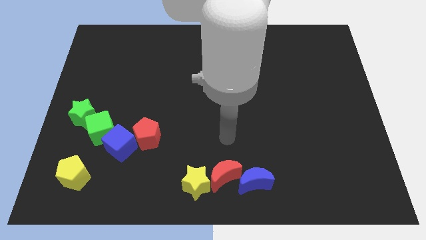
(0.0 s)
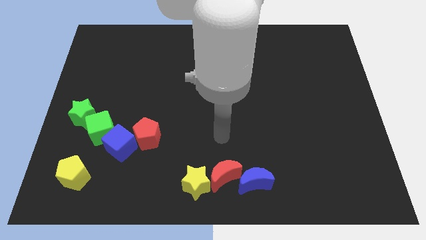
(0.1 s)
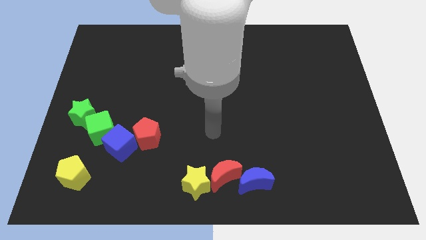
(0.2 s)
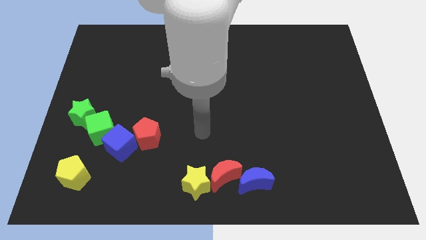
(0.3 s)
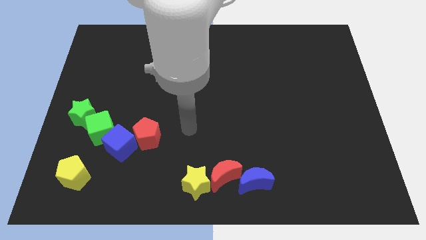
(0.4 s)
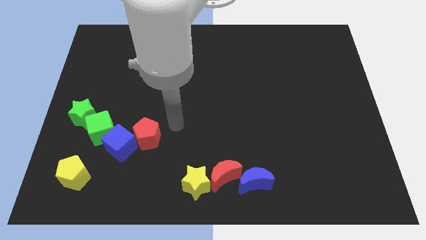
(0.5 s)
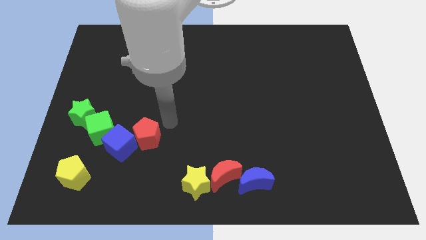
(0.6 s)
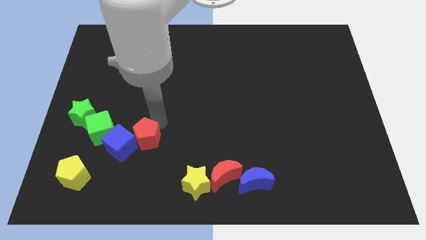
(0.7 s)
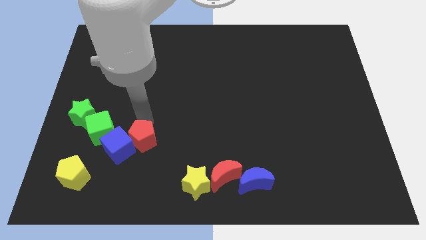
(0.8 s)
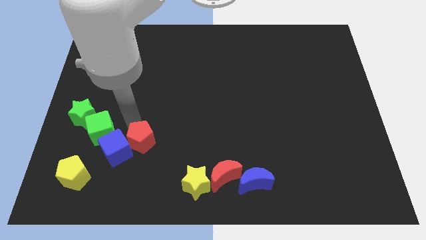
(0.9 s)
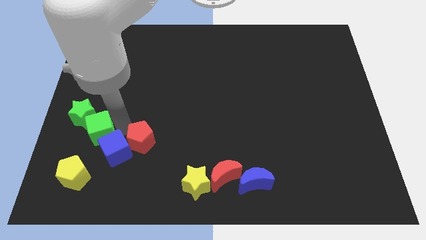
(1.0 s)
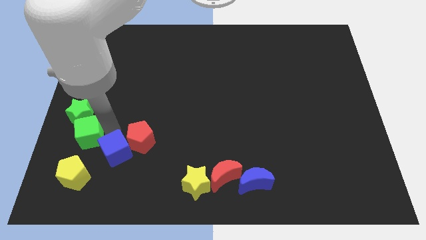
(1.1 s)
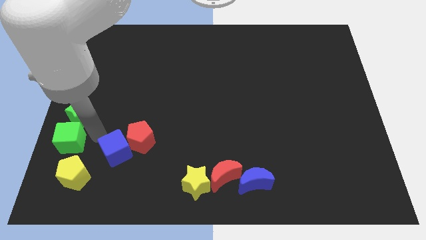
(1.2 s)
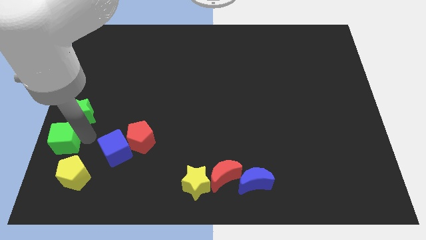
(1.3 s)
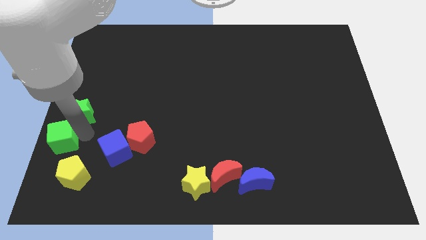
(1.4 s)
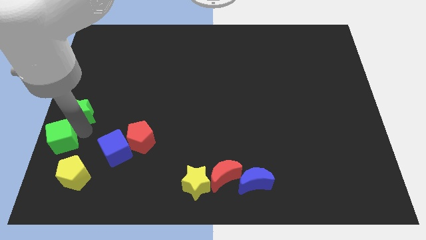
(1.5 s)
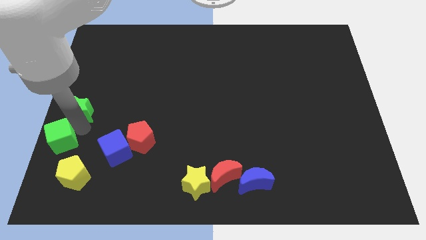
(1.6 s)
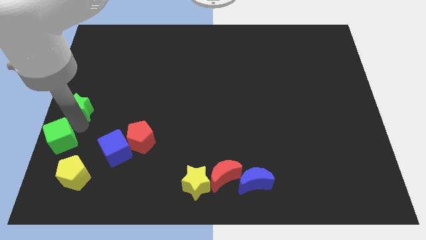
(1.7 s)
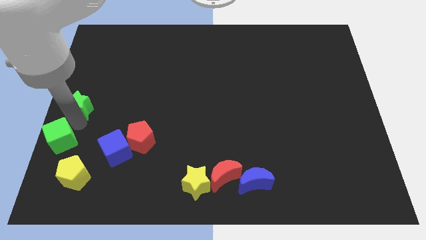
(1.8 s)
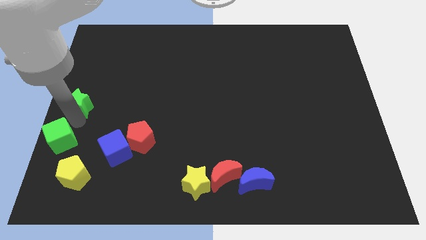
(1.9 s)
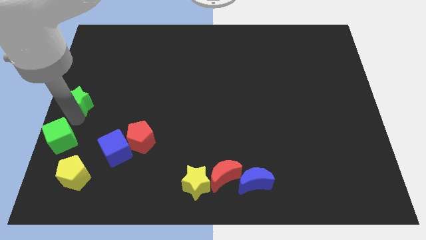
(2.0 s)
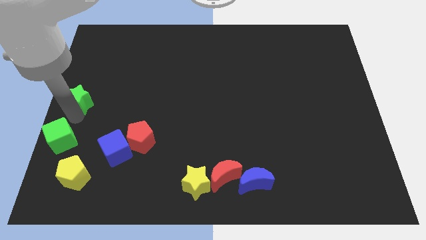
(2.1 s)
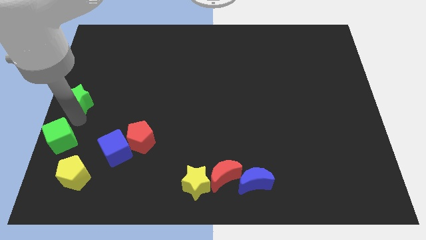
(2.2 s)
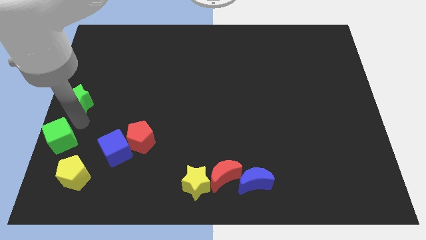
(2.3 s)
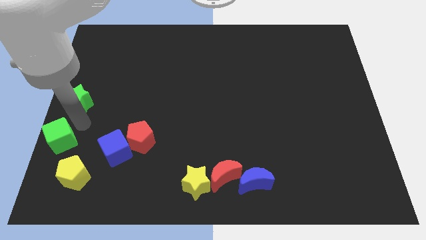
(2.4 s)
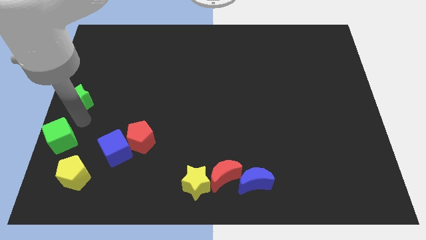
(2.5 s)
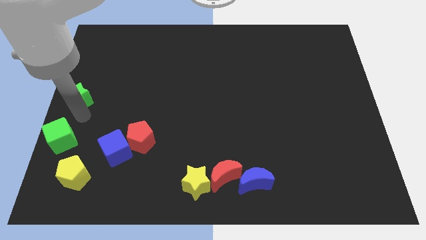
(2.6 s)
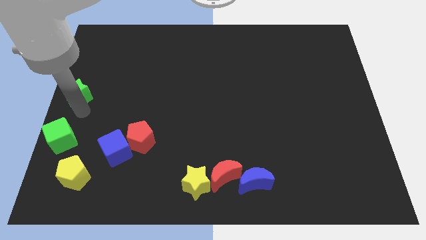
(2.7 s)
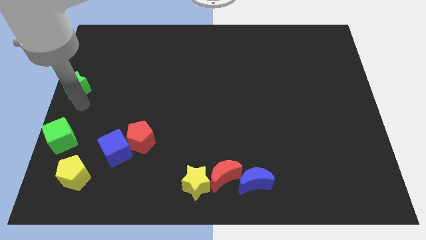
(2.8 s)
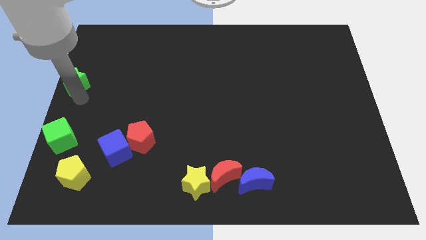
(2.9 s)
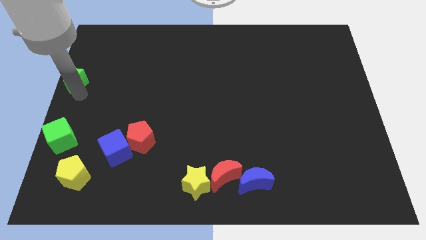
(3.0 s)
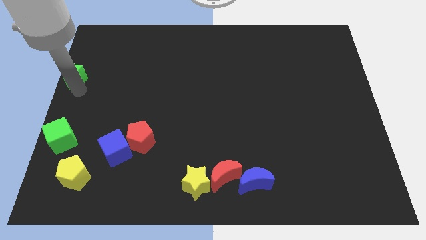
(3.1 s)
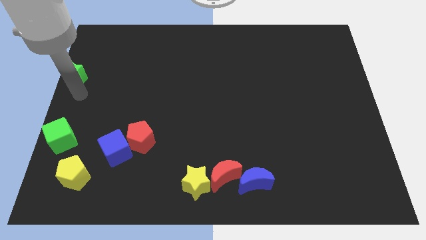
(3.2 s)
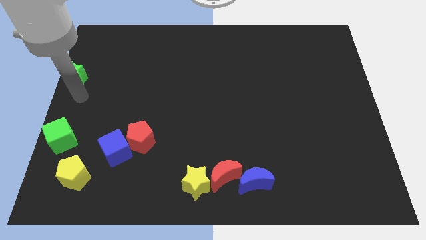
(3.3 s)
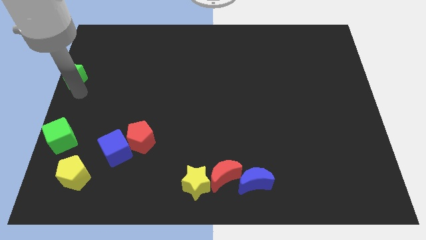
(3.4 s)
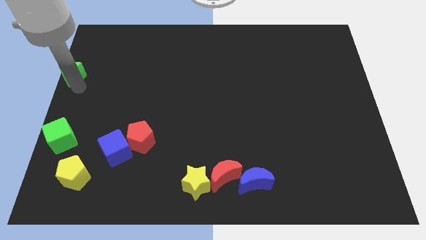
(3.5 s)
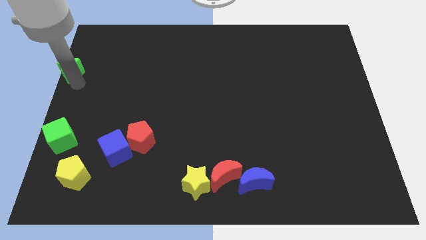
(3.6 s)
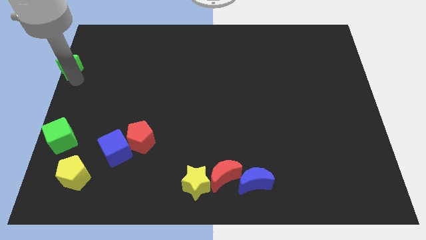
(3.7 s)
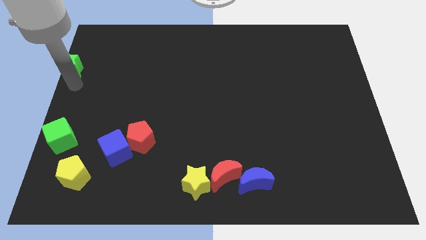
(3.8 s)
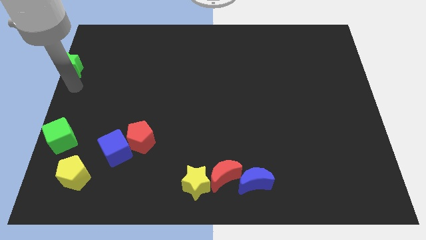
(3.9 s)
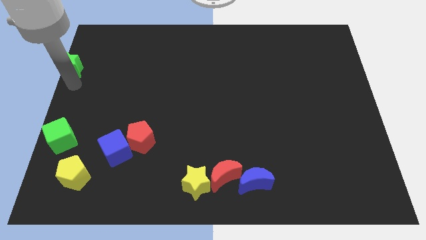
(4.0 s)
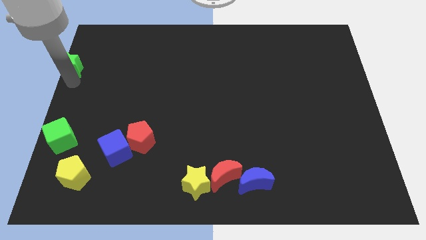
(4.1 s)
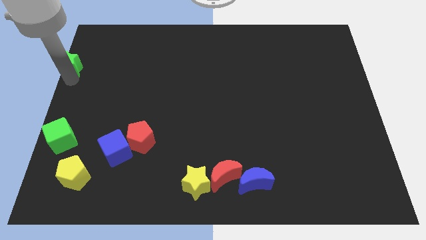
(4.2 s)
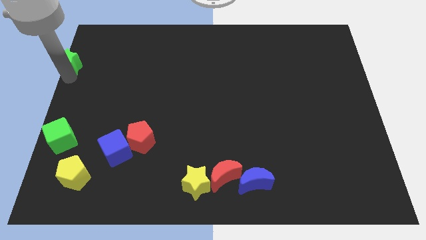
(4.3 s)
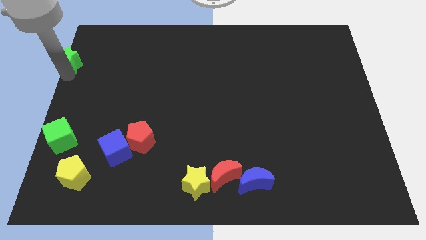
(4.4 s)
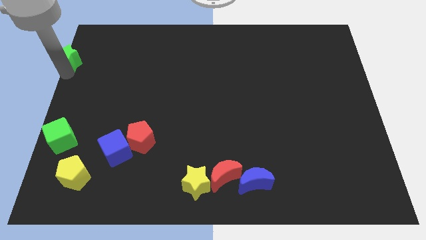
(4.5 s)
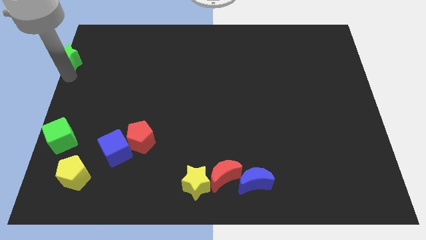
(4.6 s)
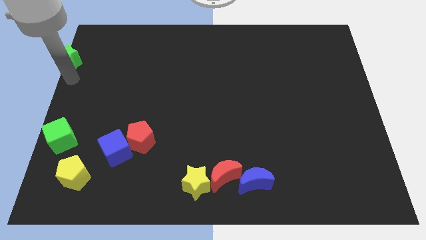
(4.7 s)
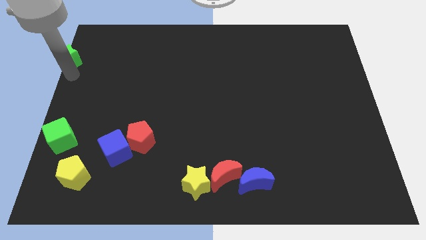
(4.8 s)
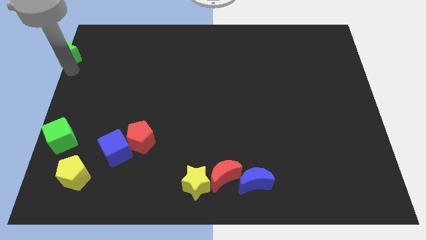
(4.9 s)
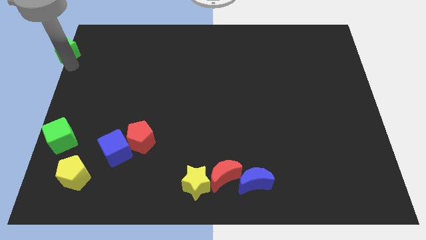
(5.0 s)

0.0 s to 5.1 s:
slide the green star to the top left
